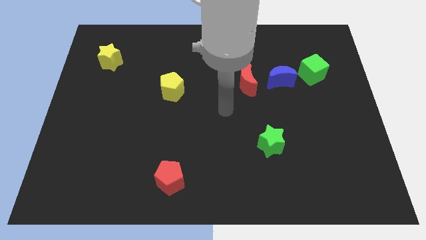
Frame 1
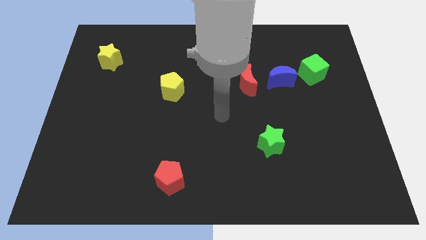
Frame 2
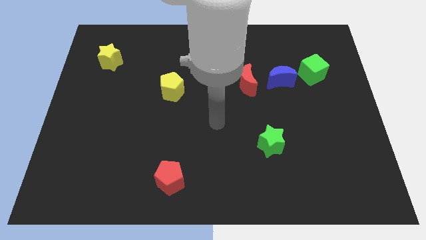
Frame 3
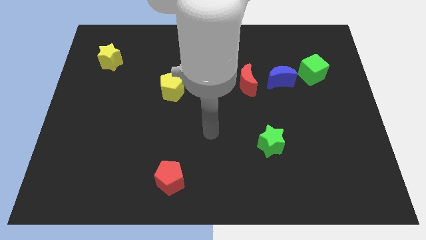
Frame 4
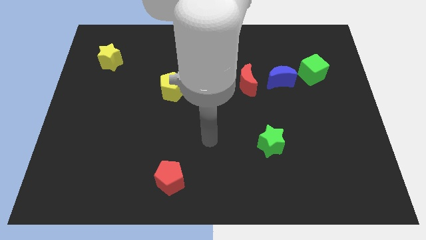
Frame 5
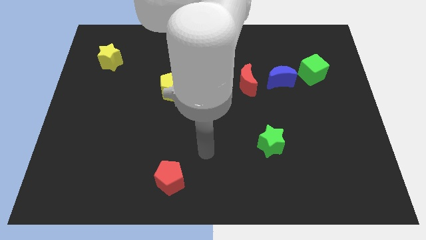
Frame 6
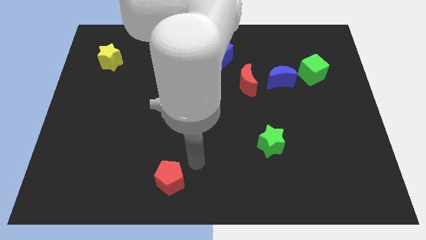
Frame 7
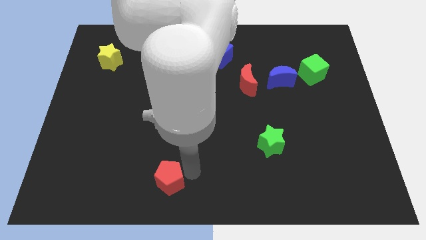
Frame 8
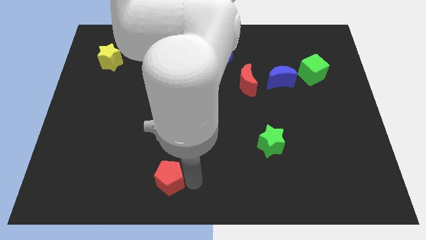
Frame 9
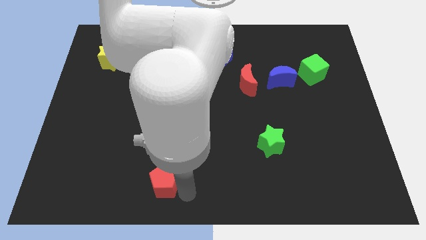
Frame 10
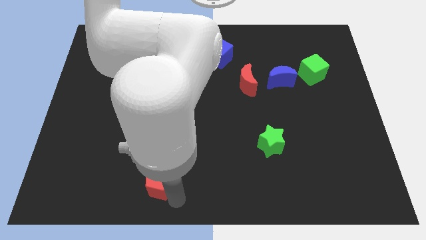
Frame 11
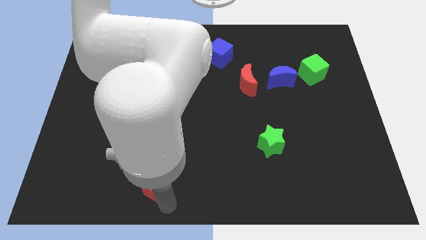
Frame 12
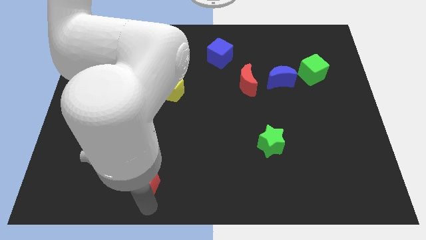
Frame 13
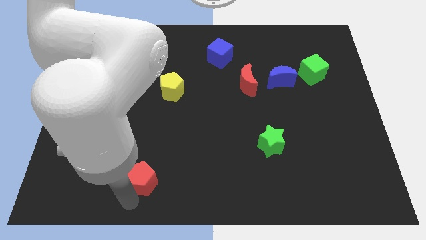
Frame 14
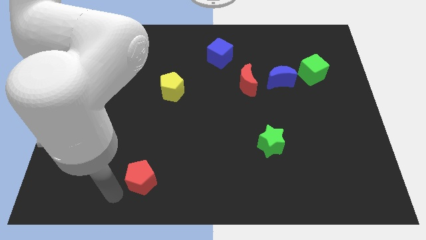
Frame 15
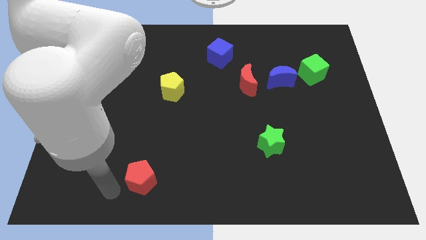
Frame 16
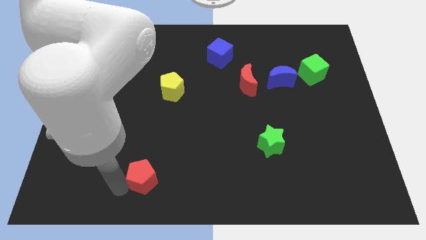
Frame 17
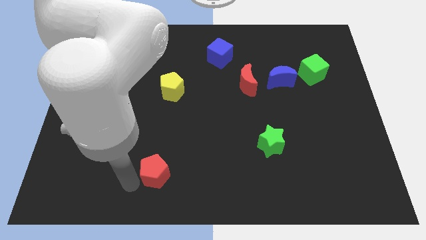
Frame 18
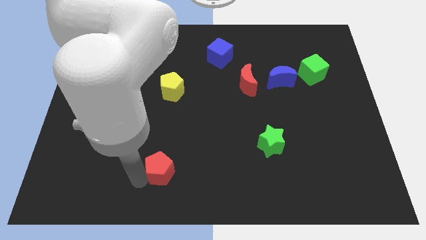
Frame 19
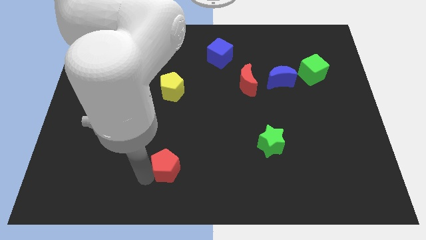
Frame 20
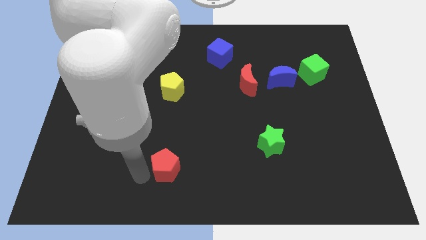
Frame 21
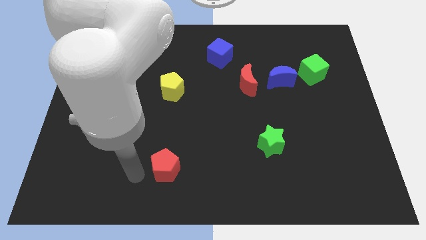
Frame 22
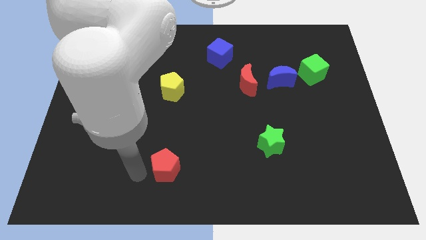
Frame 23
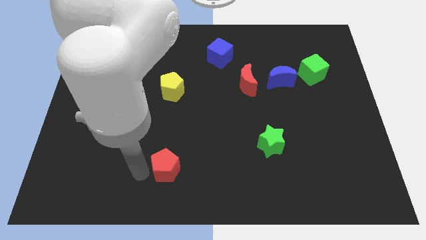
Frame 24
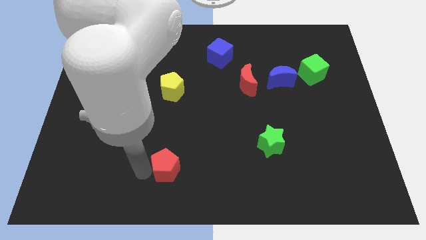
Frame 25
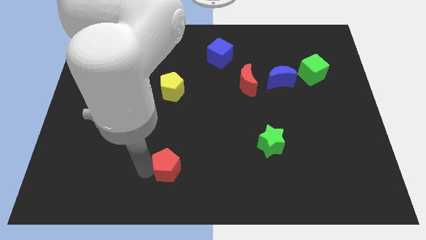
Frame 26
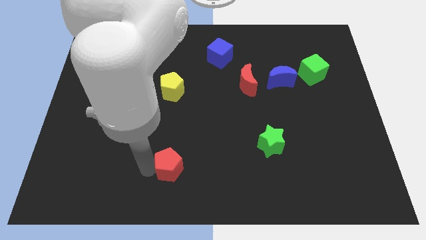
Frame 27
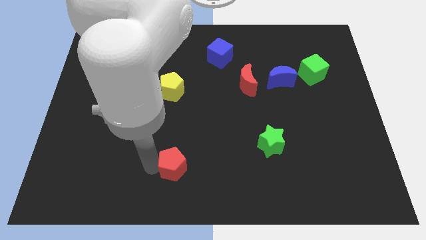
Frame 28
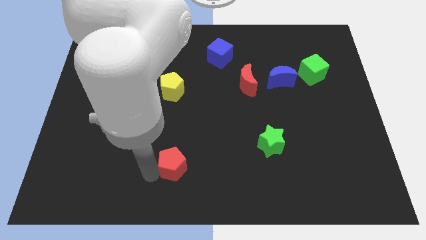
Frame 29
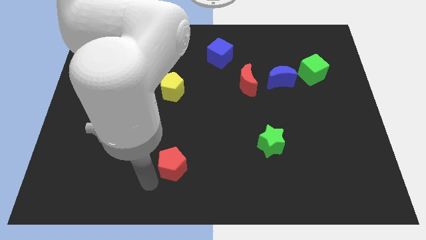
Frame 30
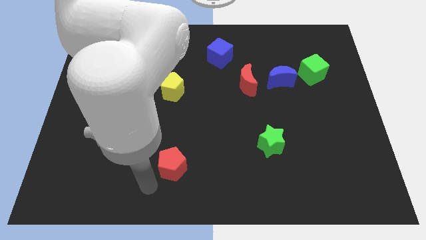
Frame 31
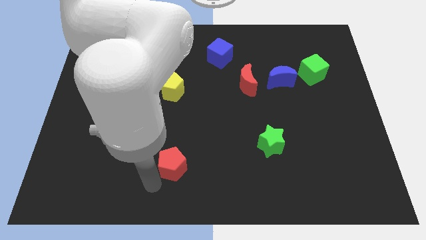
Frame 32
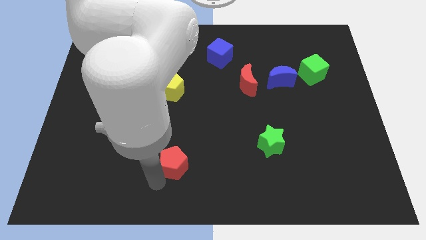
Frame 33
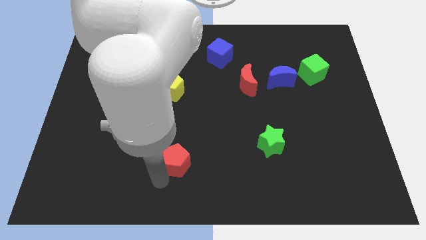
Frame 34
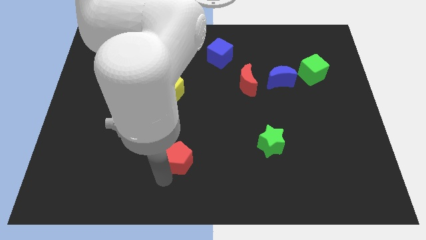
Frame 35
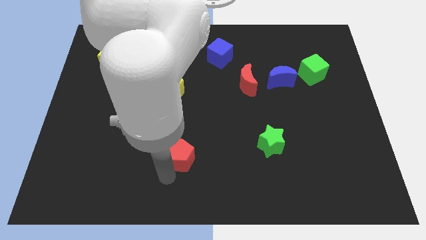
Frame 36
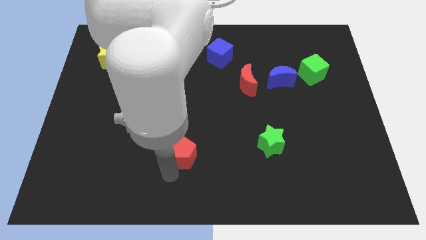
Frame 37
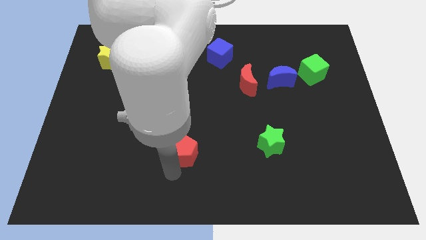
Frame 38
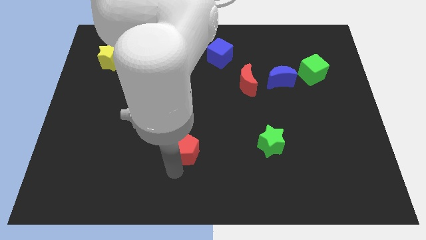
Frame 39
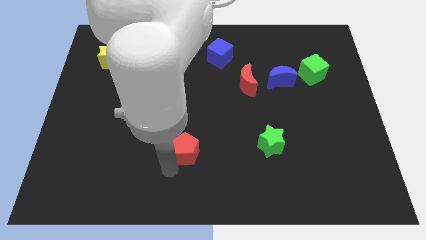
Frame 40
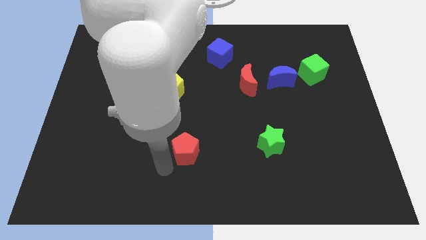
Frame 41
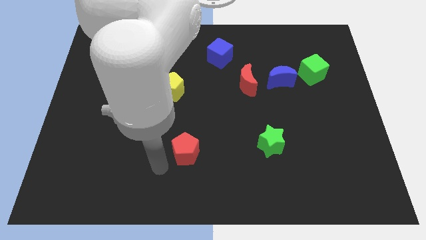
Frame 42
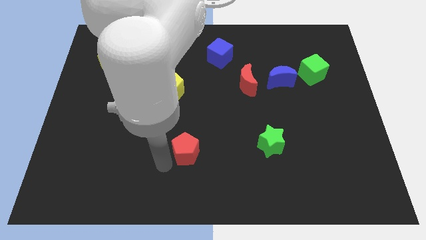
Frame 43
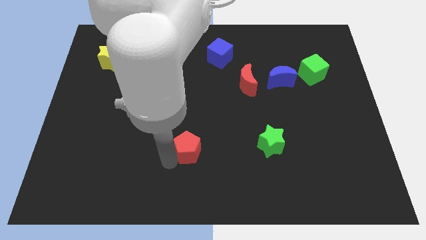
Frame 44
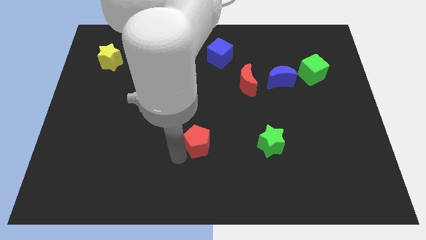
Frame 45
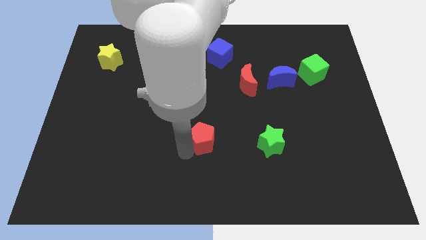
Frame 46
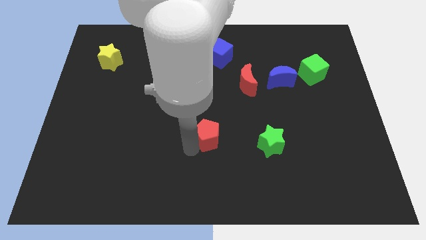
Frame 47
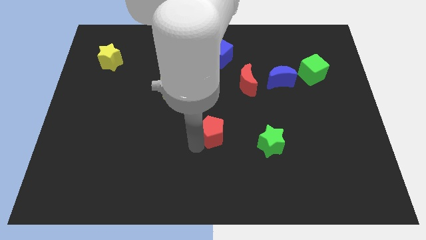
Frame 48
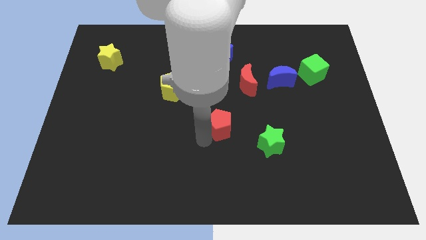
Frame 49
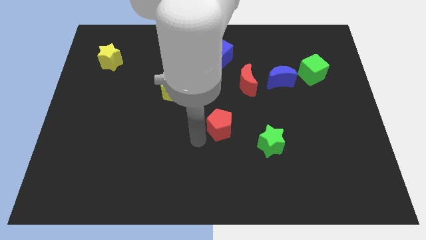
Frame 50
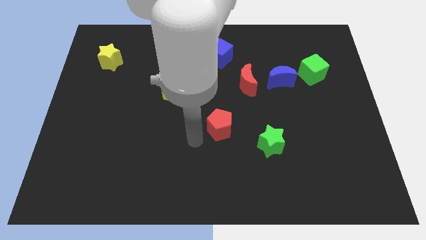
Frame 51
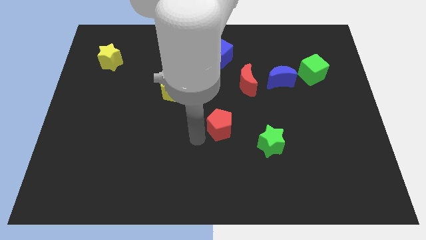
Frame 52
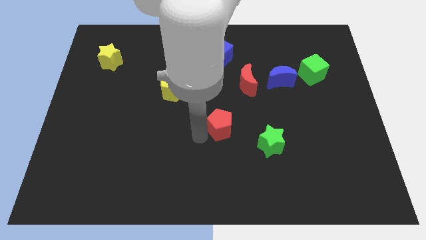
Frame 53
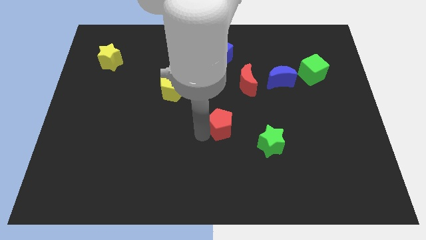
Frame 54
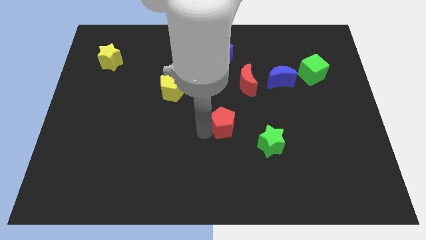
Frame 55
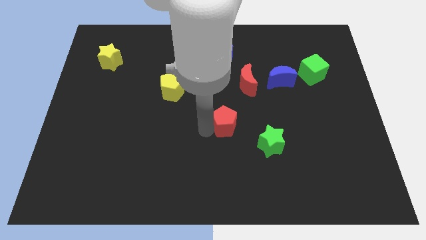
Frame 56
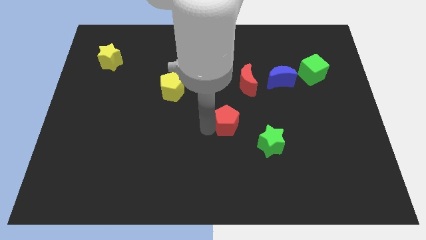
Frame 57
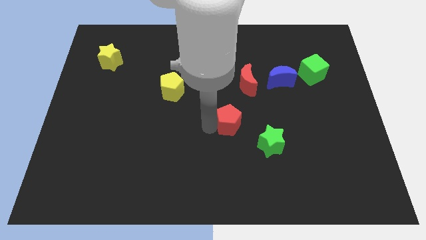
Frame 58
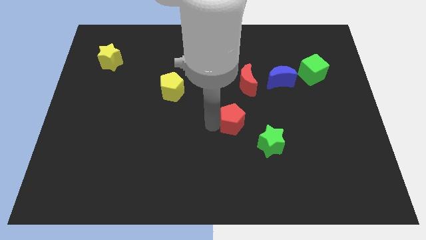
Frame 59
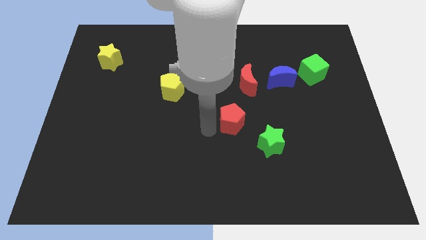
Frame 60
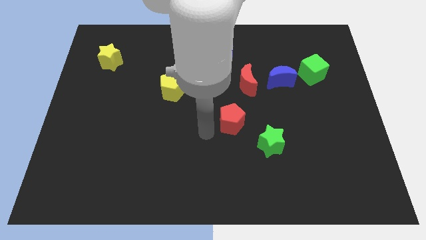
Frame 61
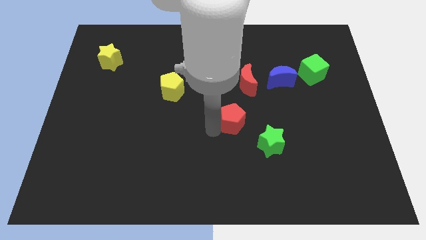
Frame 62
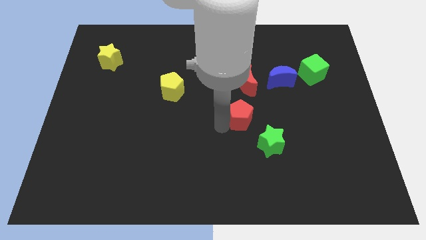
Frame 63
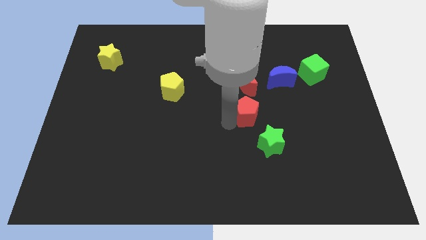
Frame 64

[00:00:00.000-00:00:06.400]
slide the red pentagon above the green star

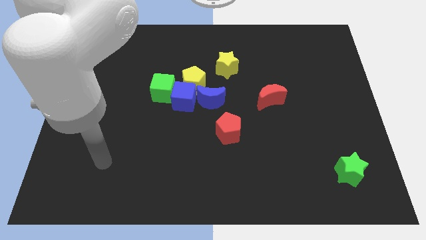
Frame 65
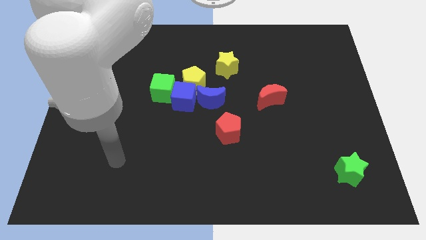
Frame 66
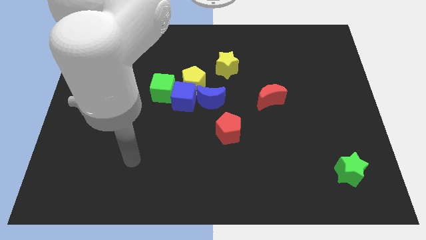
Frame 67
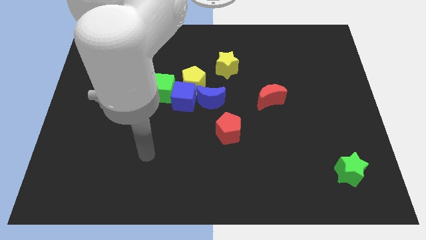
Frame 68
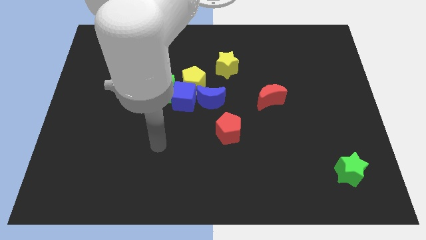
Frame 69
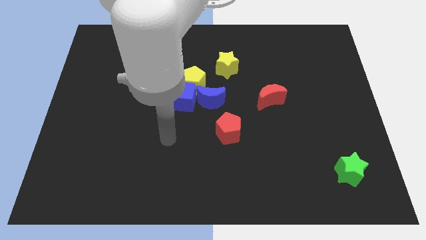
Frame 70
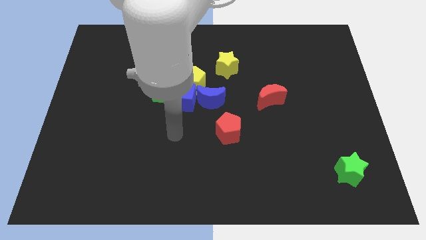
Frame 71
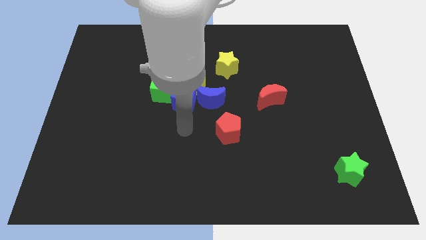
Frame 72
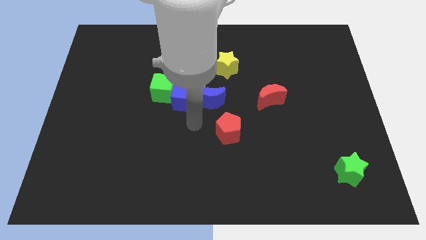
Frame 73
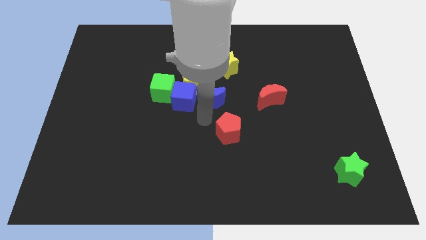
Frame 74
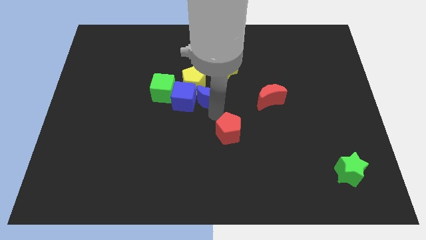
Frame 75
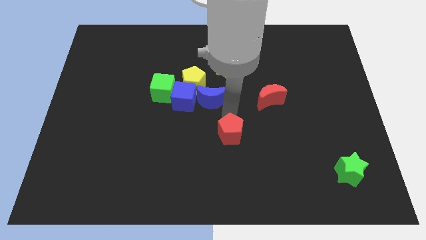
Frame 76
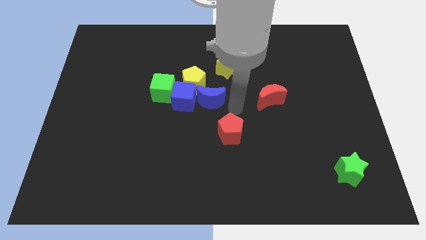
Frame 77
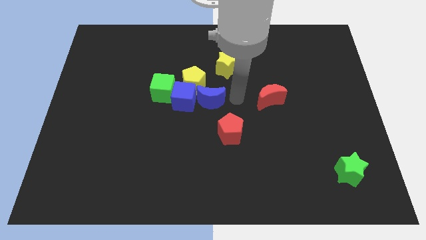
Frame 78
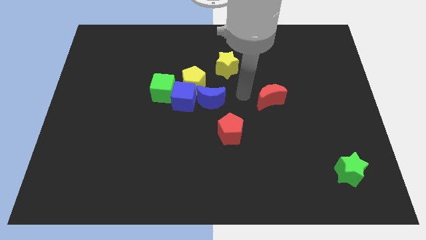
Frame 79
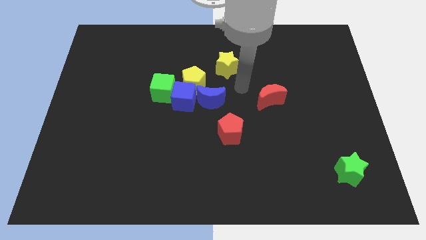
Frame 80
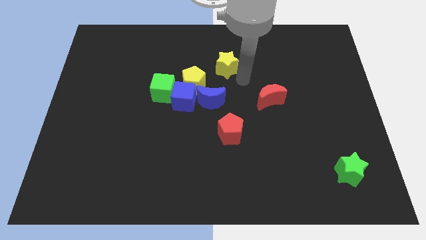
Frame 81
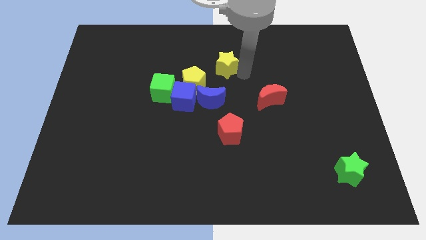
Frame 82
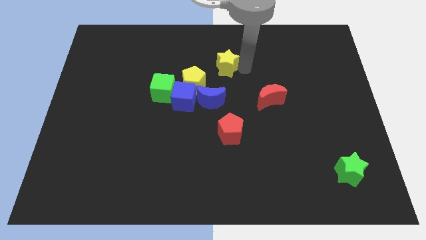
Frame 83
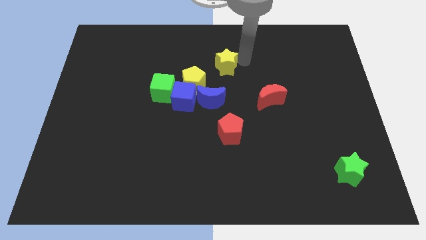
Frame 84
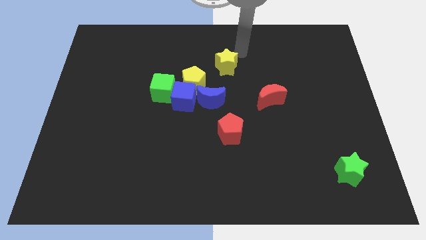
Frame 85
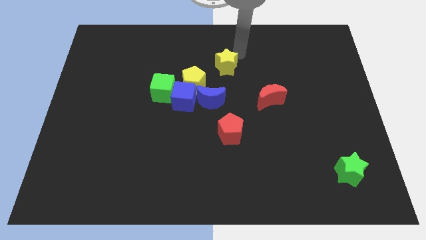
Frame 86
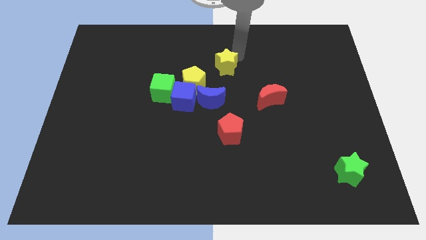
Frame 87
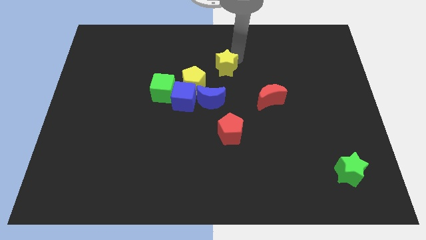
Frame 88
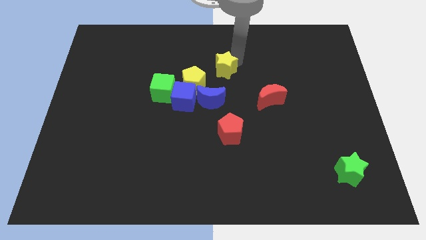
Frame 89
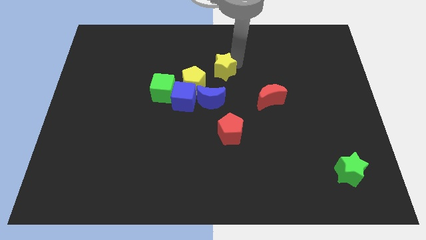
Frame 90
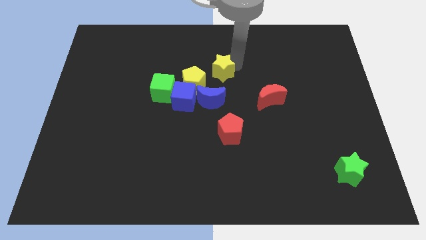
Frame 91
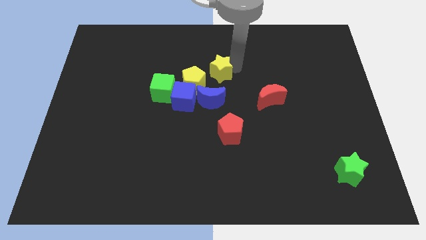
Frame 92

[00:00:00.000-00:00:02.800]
move the yellow star to the top right of the blue cube
